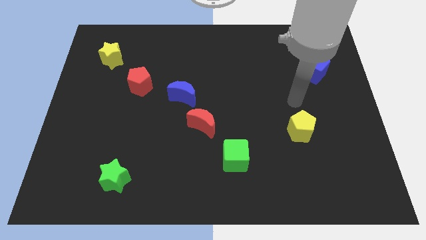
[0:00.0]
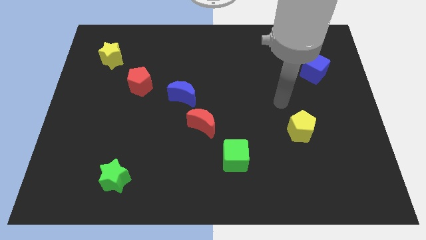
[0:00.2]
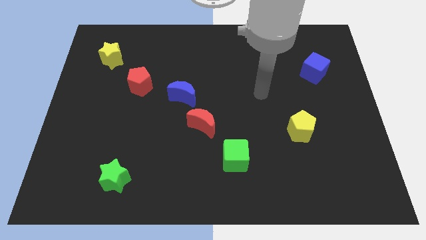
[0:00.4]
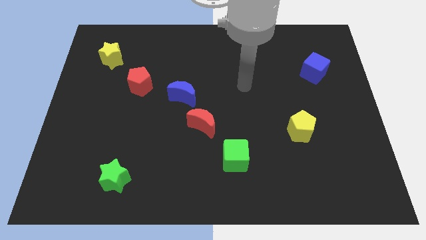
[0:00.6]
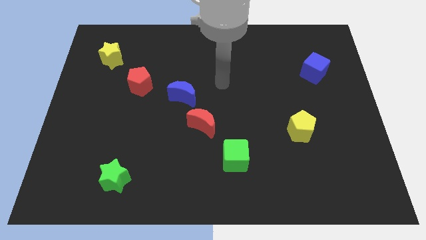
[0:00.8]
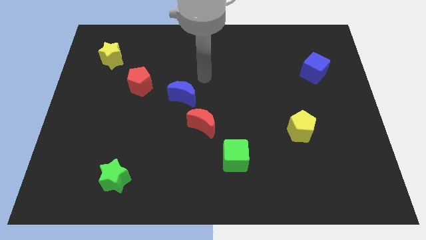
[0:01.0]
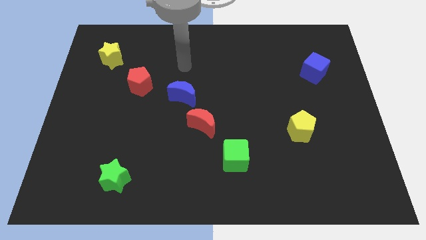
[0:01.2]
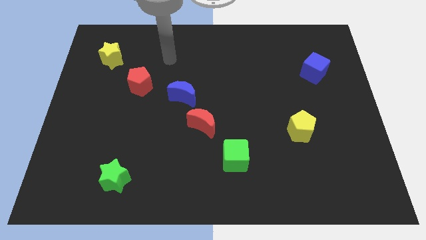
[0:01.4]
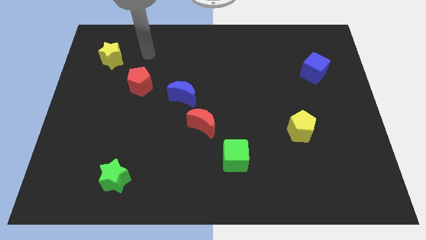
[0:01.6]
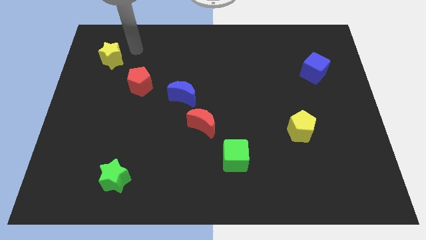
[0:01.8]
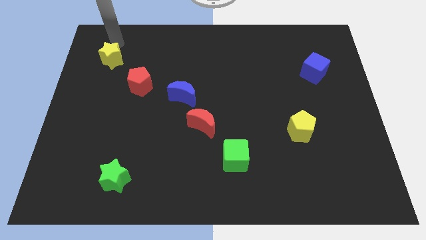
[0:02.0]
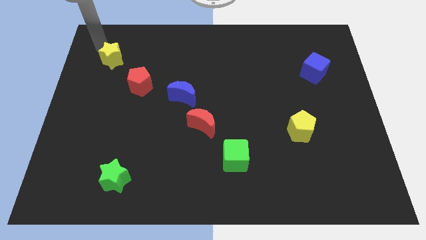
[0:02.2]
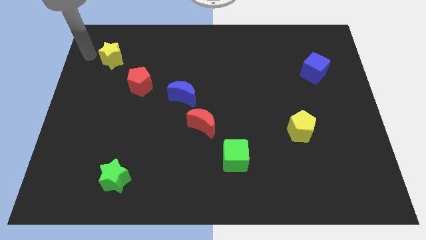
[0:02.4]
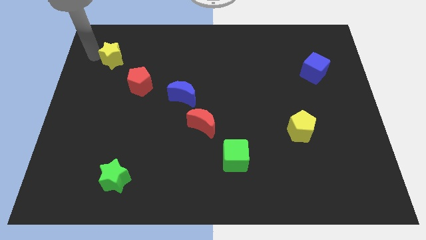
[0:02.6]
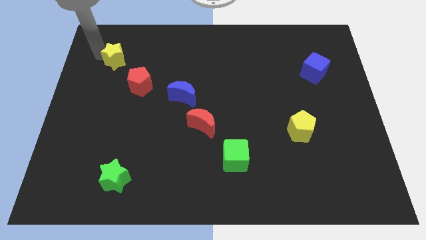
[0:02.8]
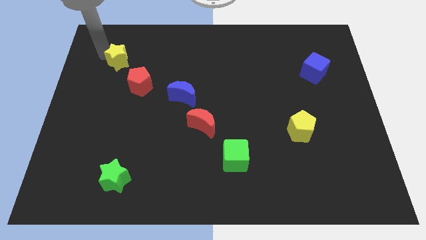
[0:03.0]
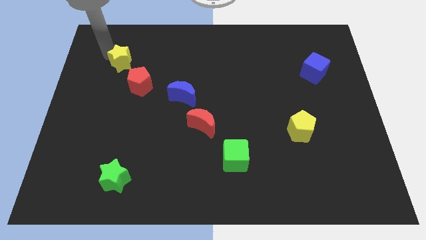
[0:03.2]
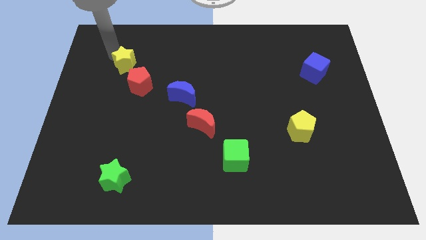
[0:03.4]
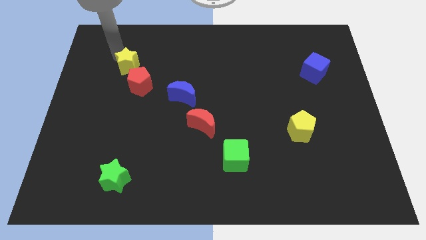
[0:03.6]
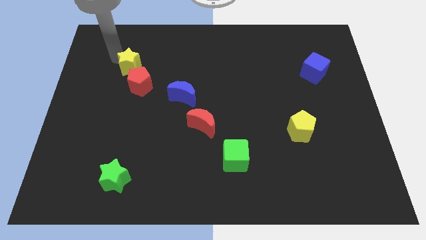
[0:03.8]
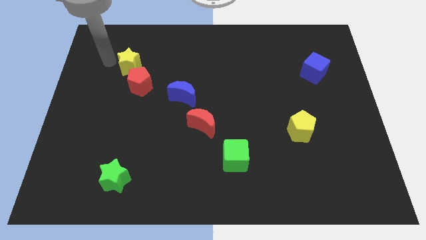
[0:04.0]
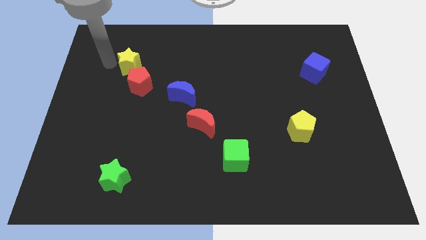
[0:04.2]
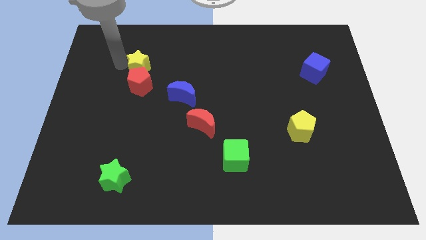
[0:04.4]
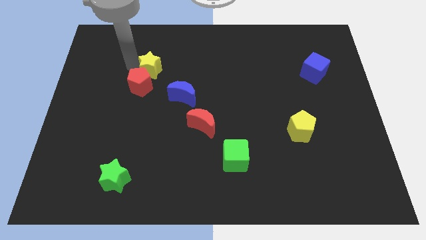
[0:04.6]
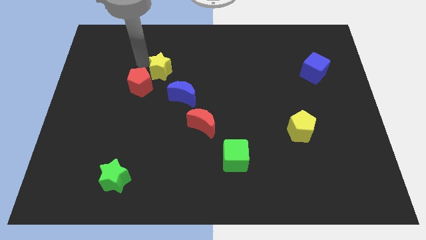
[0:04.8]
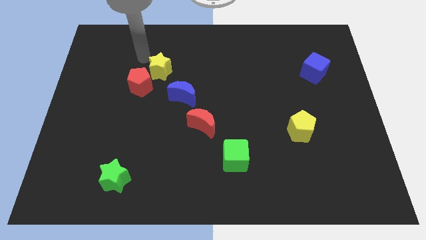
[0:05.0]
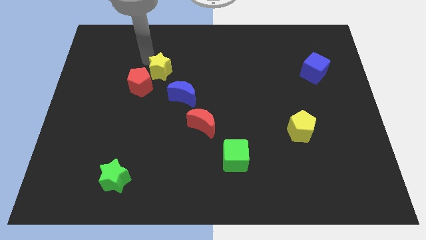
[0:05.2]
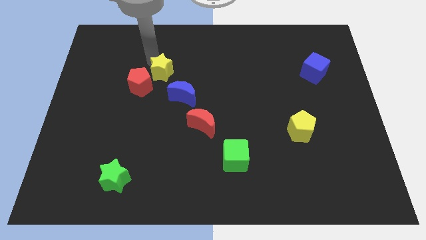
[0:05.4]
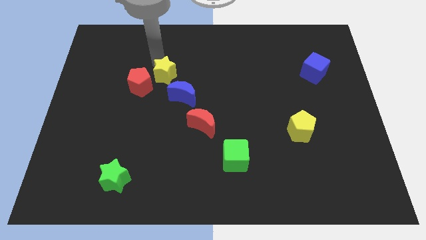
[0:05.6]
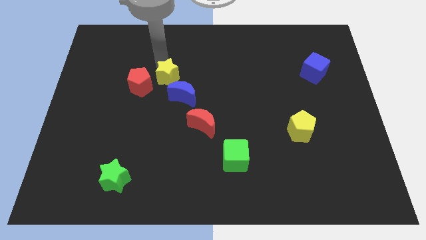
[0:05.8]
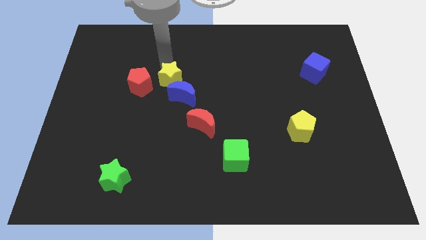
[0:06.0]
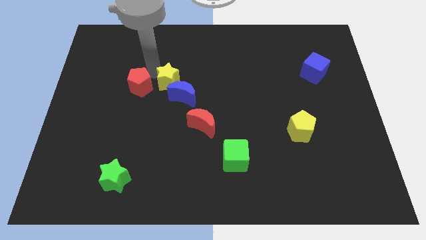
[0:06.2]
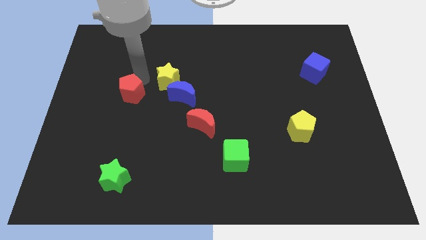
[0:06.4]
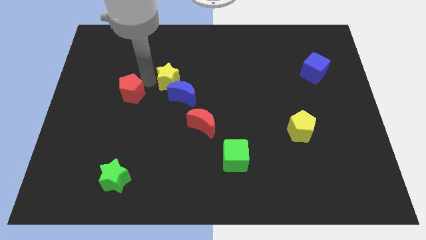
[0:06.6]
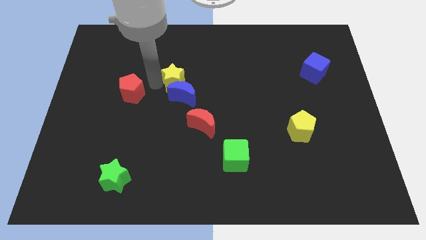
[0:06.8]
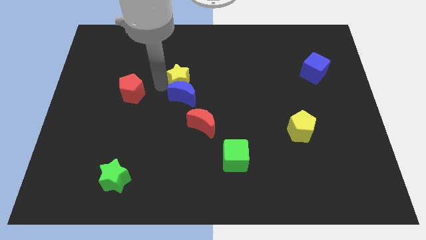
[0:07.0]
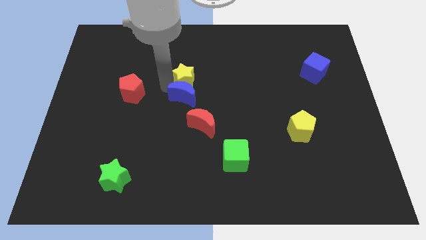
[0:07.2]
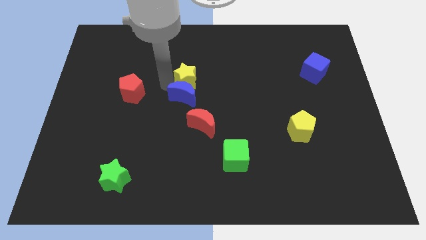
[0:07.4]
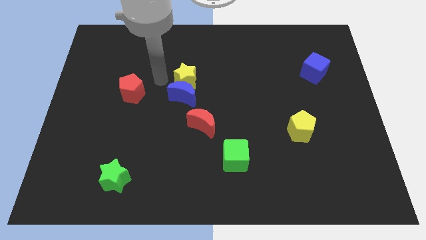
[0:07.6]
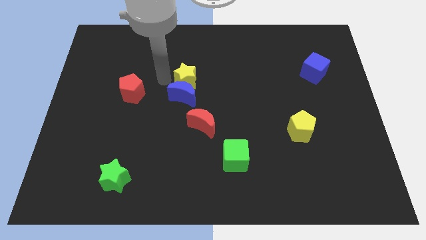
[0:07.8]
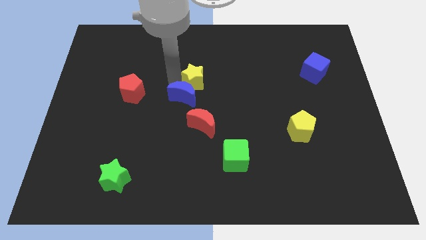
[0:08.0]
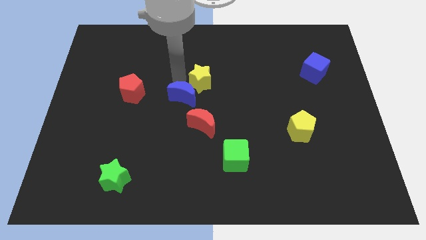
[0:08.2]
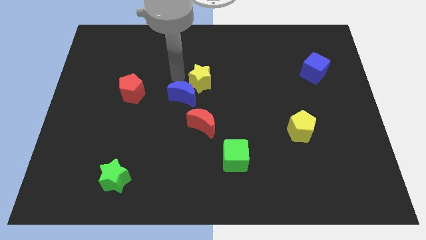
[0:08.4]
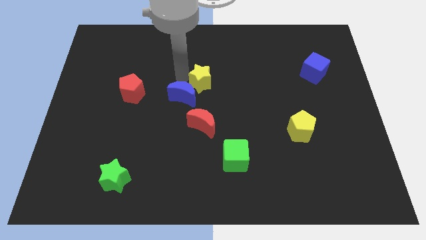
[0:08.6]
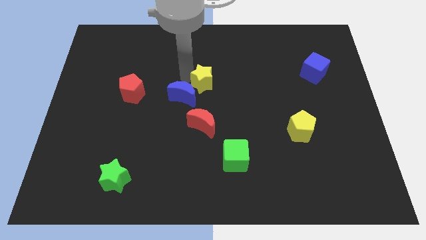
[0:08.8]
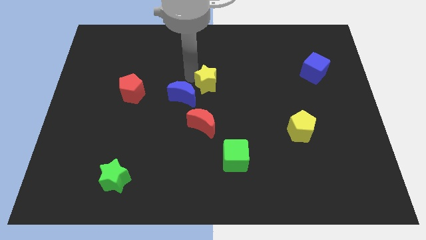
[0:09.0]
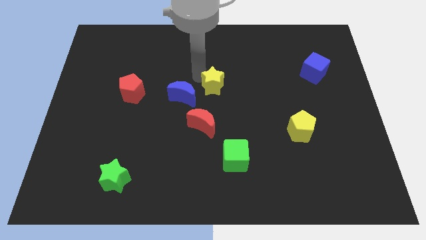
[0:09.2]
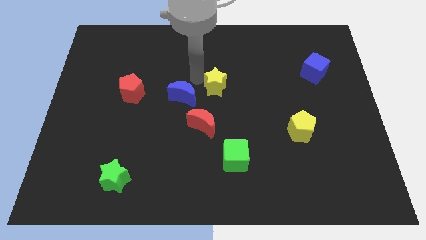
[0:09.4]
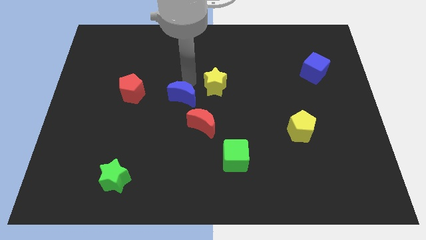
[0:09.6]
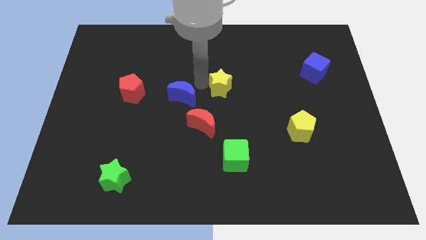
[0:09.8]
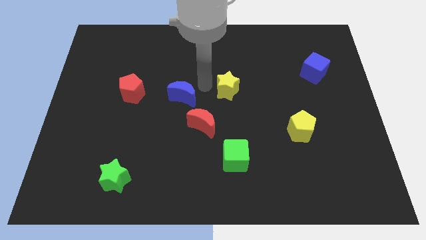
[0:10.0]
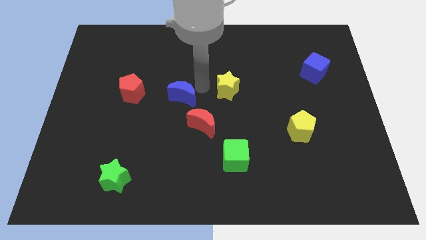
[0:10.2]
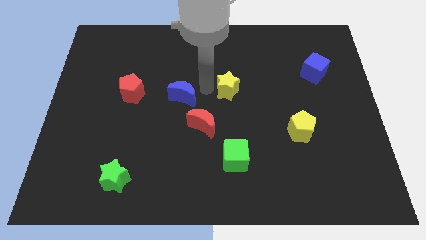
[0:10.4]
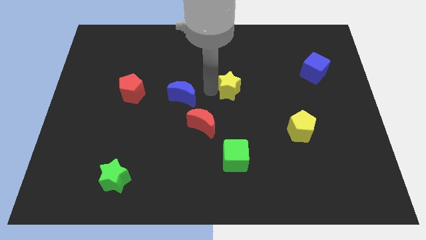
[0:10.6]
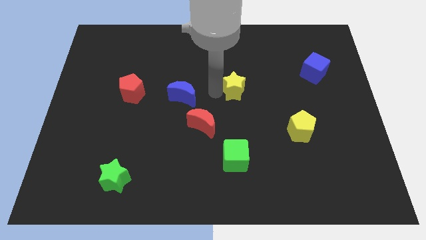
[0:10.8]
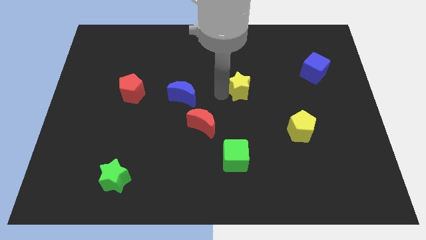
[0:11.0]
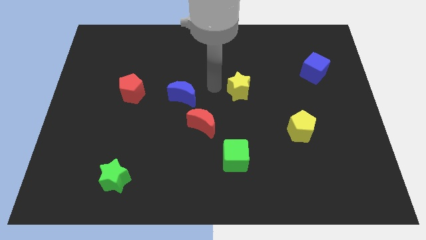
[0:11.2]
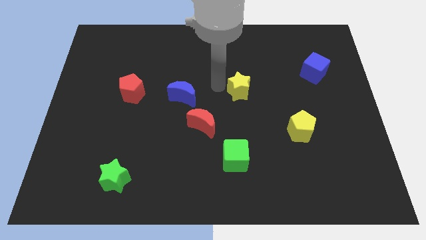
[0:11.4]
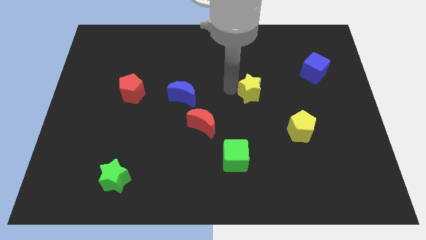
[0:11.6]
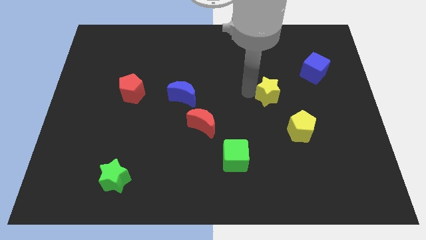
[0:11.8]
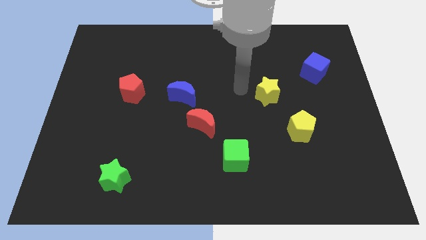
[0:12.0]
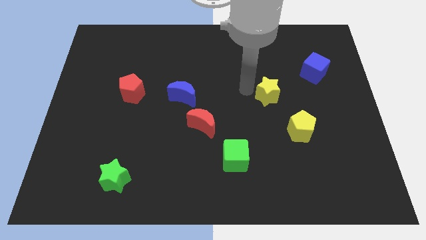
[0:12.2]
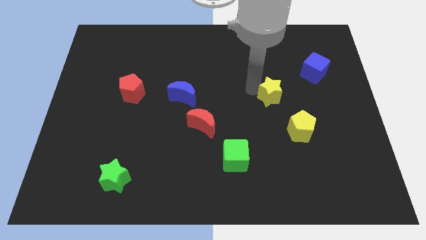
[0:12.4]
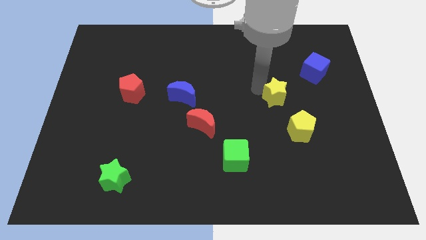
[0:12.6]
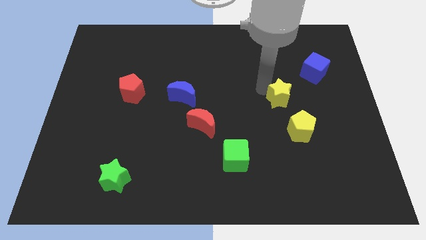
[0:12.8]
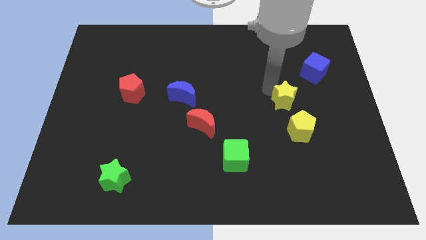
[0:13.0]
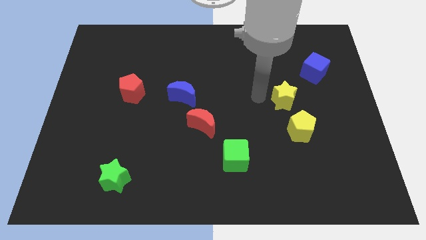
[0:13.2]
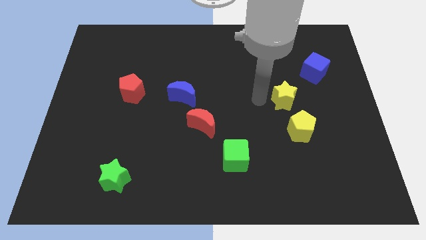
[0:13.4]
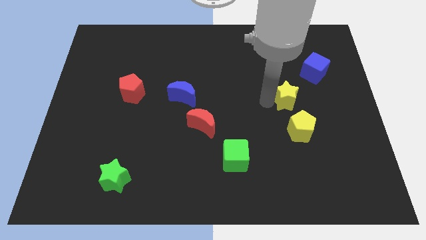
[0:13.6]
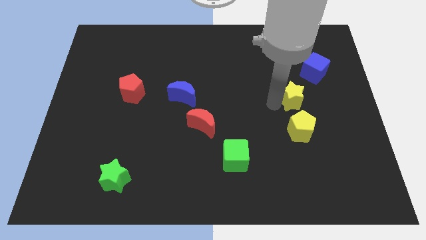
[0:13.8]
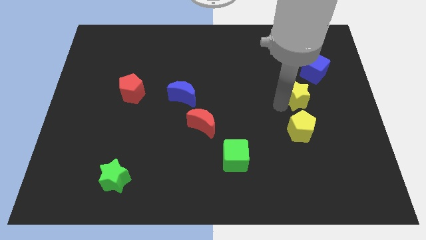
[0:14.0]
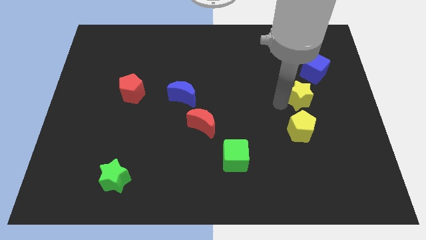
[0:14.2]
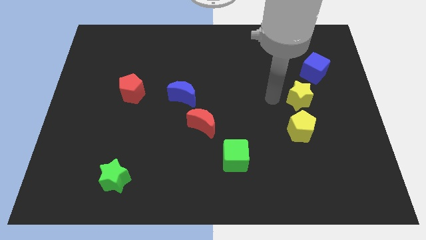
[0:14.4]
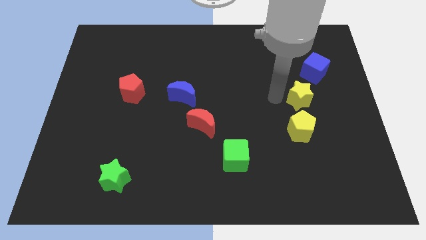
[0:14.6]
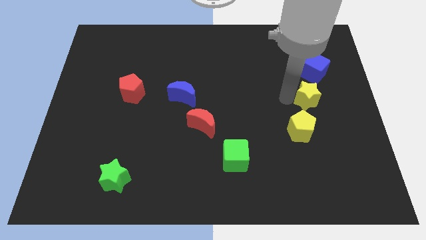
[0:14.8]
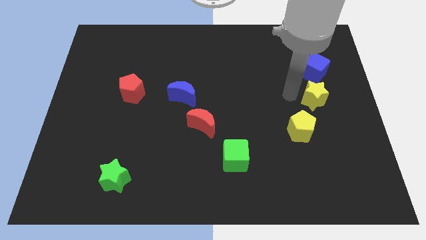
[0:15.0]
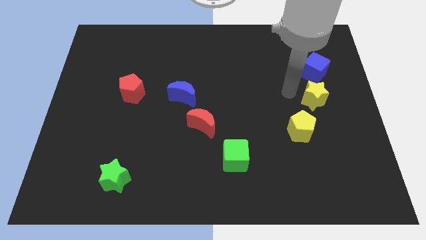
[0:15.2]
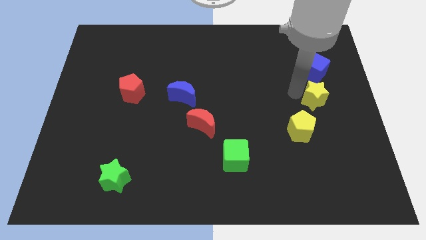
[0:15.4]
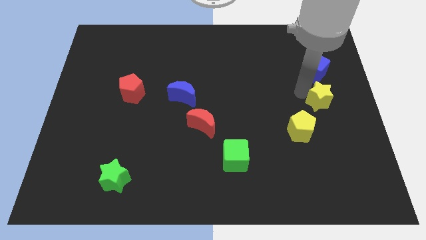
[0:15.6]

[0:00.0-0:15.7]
move the yellow star to the right side of the board
